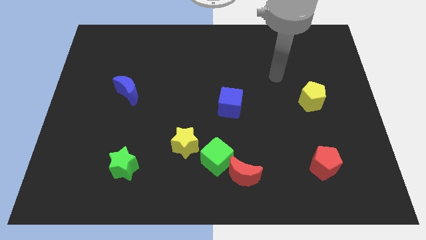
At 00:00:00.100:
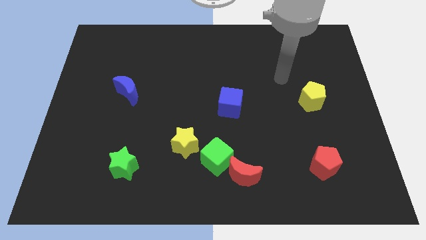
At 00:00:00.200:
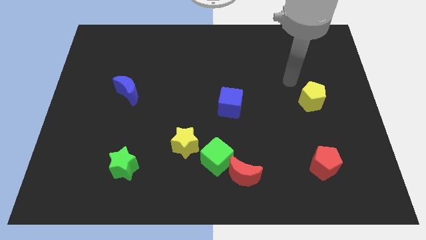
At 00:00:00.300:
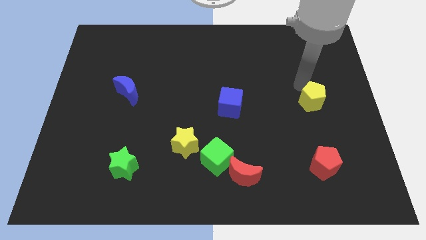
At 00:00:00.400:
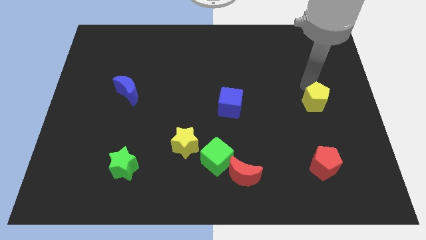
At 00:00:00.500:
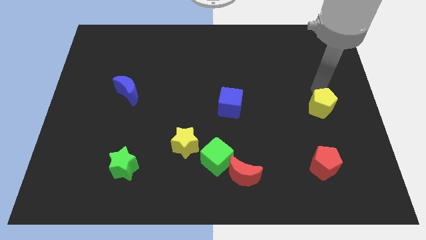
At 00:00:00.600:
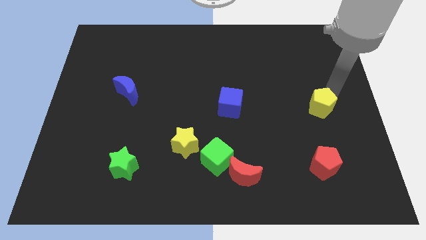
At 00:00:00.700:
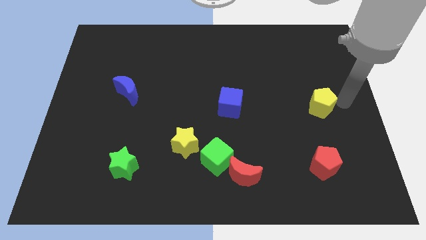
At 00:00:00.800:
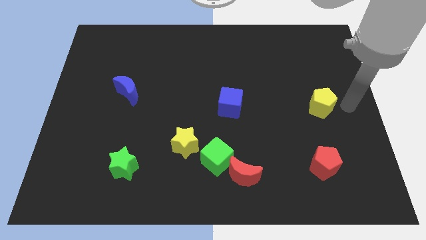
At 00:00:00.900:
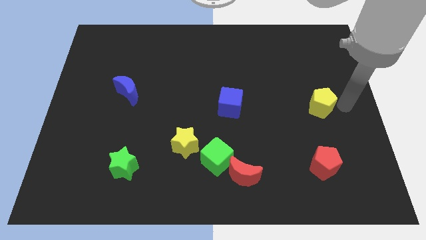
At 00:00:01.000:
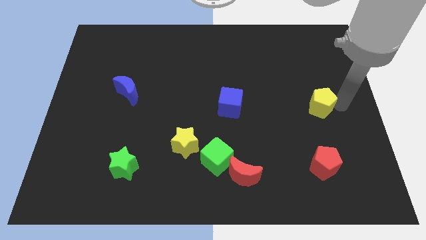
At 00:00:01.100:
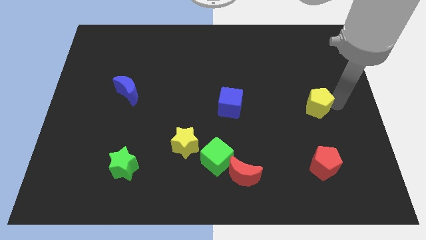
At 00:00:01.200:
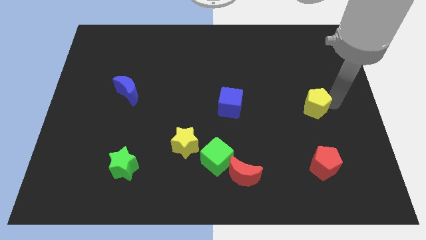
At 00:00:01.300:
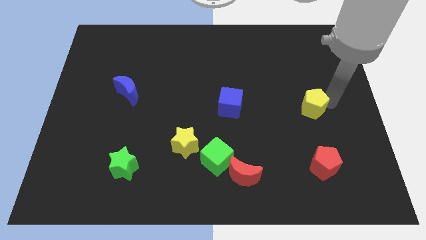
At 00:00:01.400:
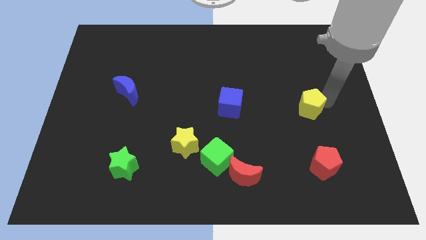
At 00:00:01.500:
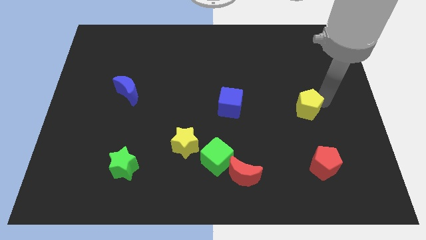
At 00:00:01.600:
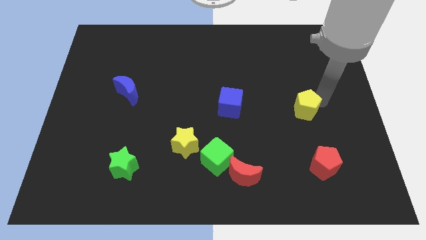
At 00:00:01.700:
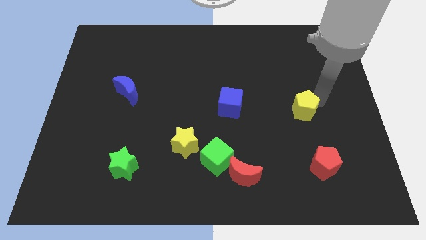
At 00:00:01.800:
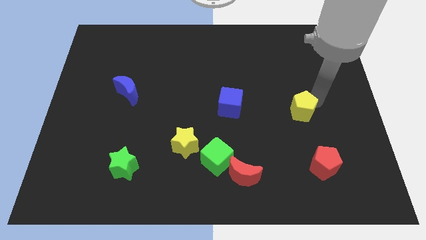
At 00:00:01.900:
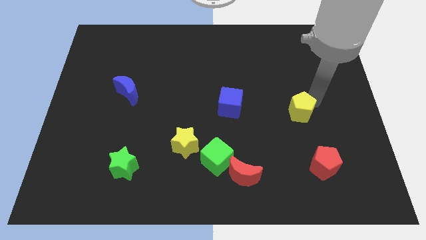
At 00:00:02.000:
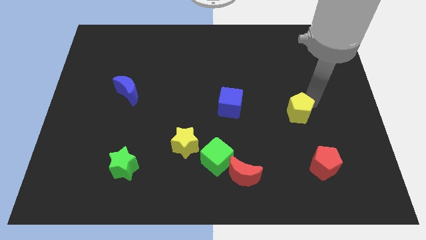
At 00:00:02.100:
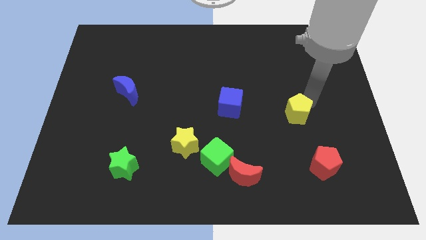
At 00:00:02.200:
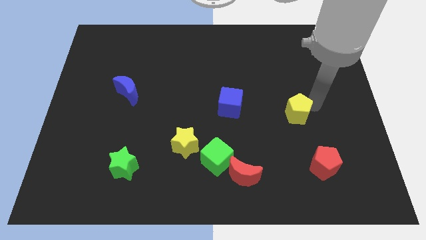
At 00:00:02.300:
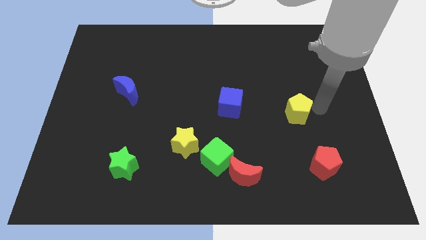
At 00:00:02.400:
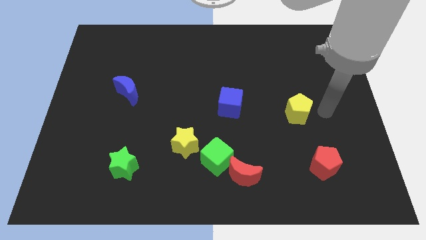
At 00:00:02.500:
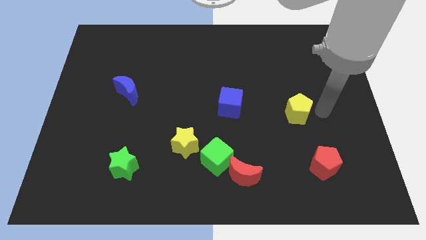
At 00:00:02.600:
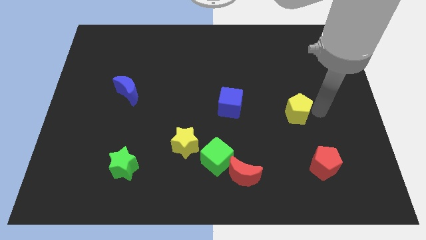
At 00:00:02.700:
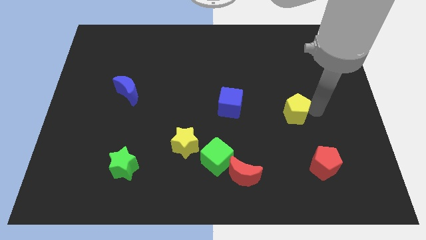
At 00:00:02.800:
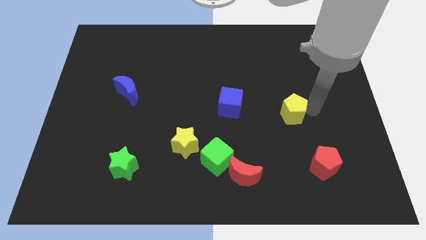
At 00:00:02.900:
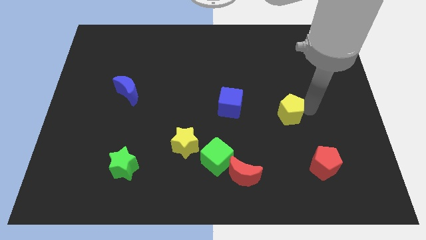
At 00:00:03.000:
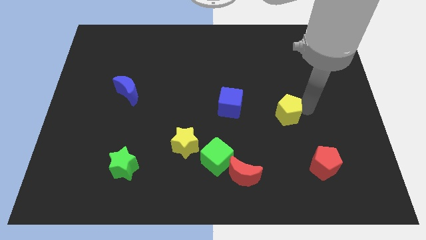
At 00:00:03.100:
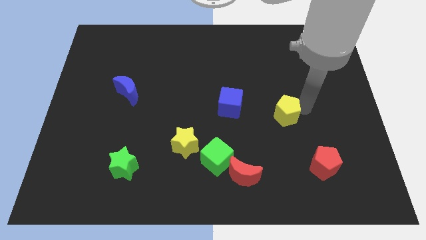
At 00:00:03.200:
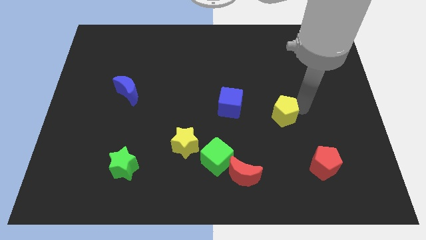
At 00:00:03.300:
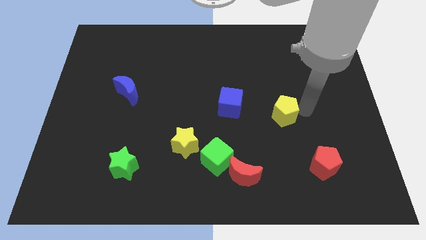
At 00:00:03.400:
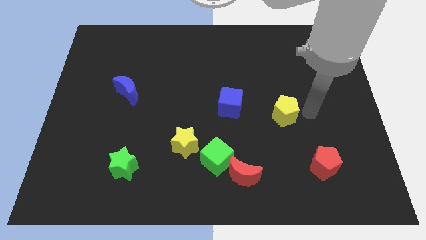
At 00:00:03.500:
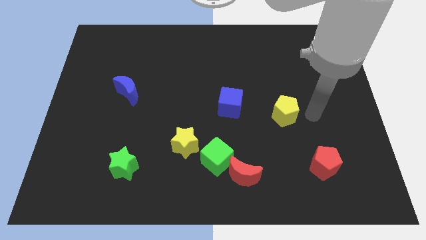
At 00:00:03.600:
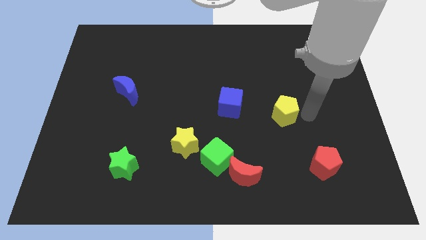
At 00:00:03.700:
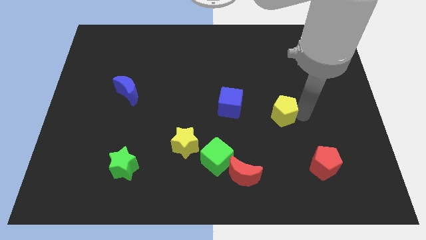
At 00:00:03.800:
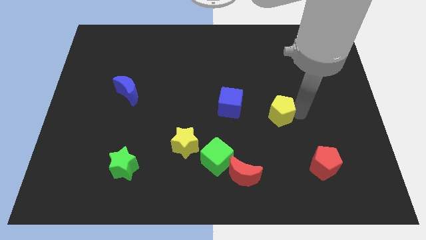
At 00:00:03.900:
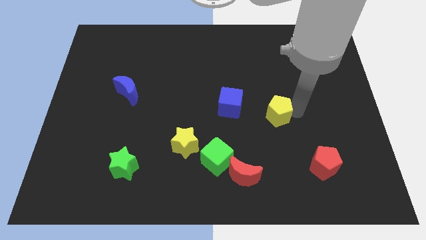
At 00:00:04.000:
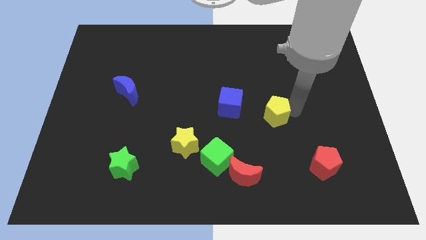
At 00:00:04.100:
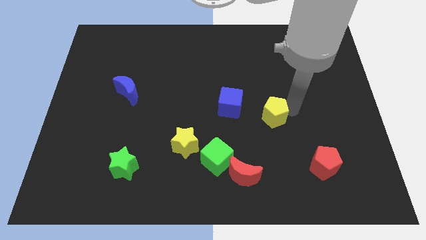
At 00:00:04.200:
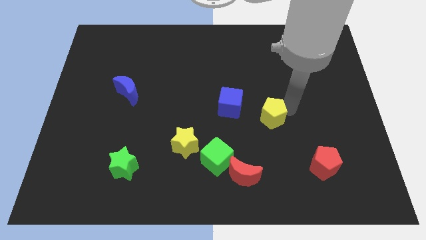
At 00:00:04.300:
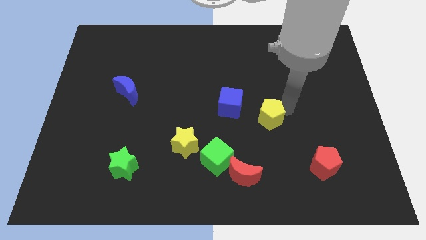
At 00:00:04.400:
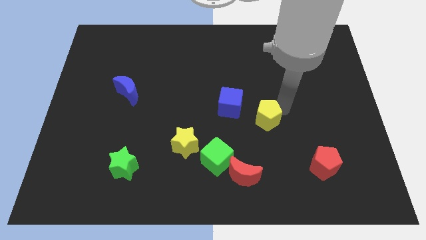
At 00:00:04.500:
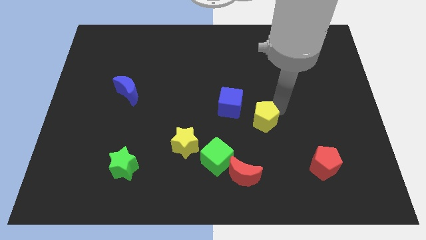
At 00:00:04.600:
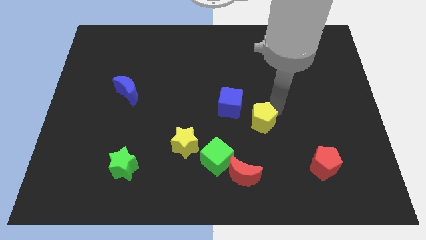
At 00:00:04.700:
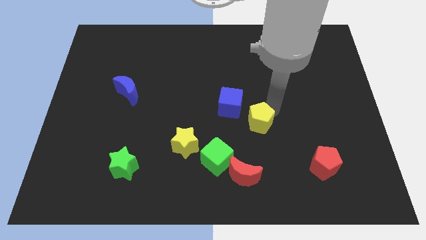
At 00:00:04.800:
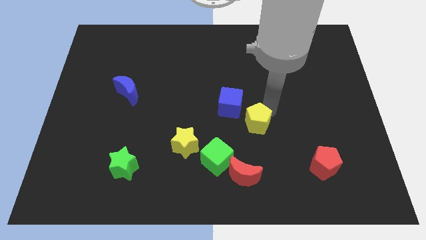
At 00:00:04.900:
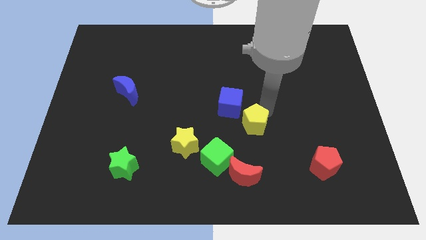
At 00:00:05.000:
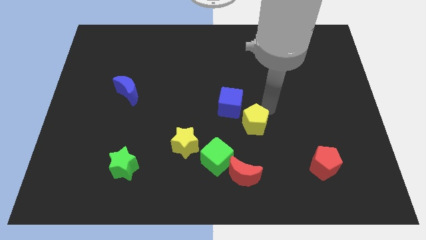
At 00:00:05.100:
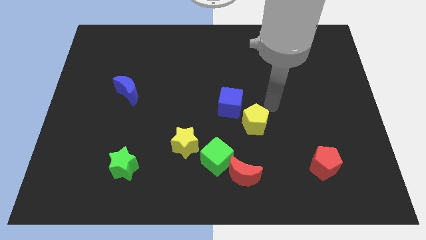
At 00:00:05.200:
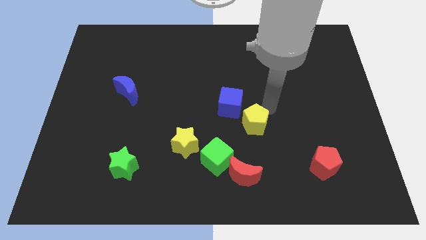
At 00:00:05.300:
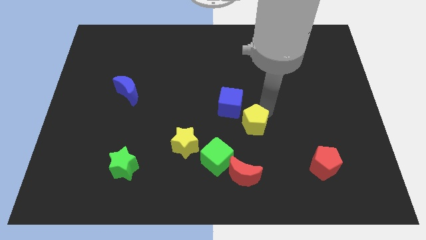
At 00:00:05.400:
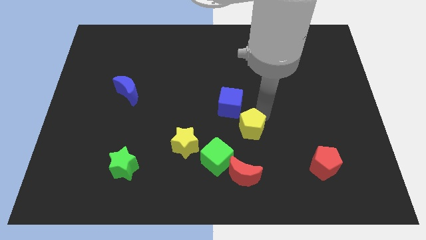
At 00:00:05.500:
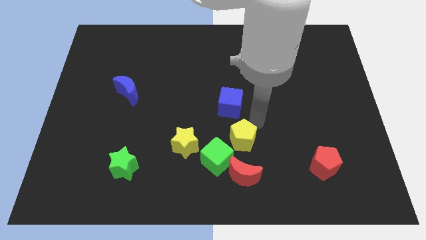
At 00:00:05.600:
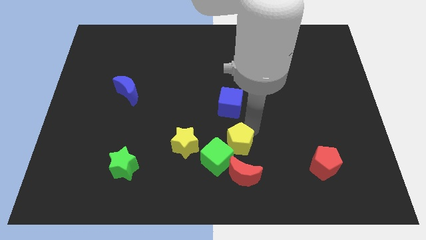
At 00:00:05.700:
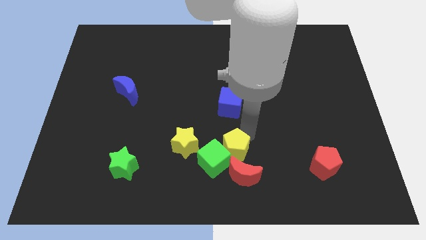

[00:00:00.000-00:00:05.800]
put the yellow pentagon towards the green cube

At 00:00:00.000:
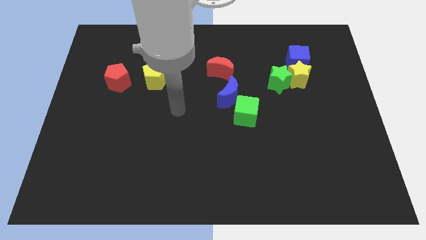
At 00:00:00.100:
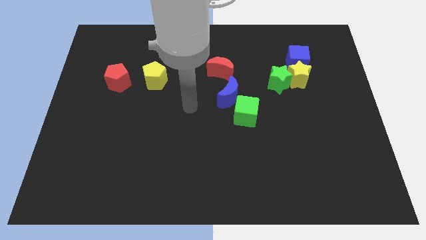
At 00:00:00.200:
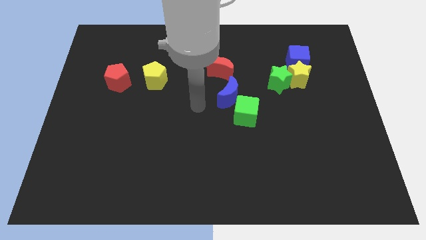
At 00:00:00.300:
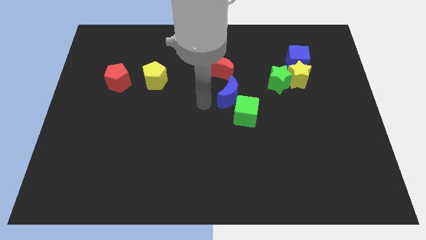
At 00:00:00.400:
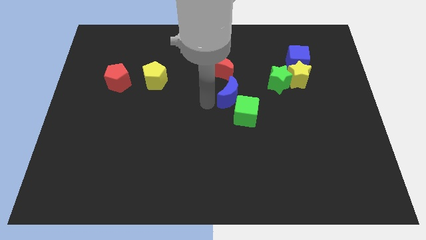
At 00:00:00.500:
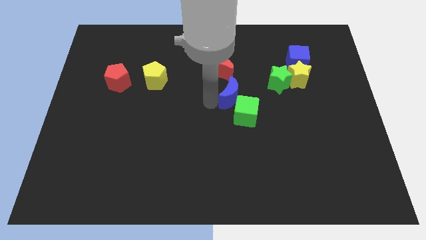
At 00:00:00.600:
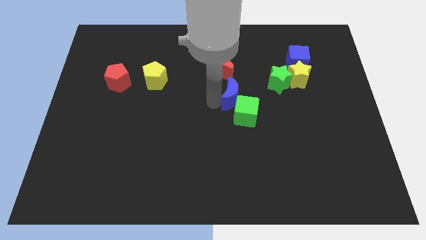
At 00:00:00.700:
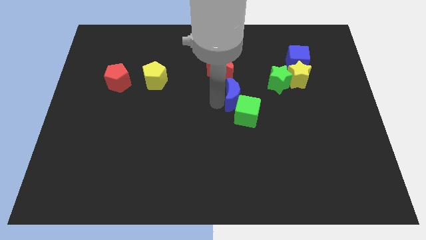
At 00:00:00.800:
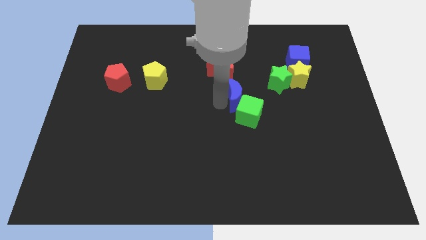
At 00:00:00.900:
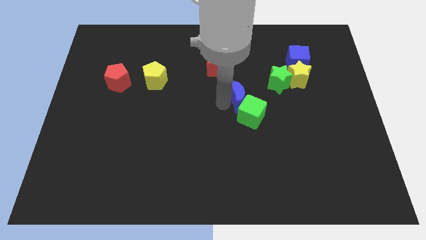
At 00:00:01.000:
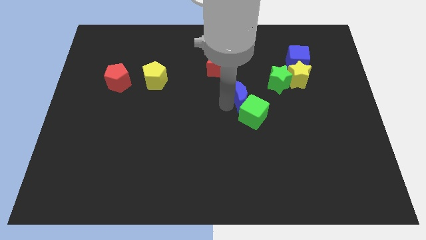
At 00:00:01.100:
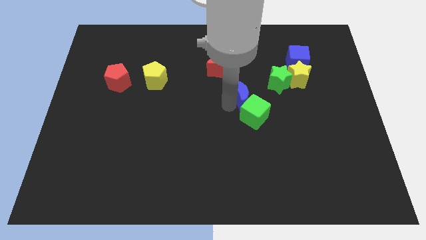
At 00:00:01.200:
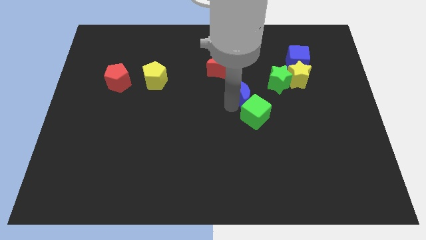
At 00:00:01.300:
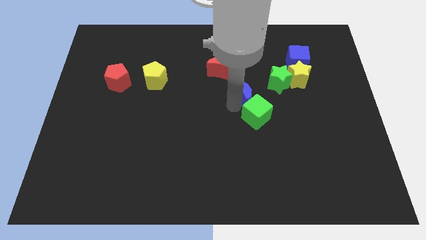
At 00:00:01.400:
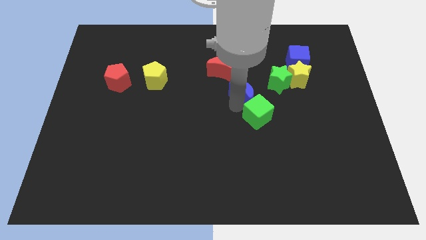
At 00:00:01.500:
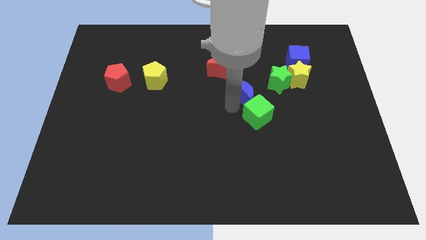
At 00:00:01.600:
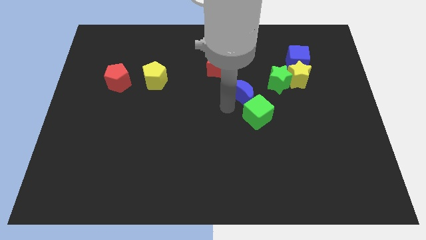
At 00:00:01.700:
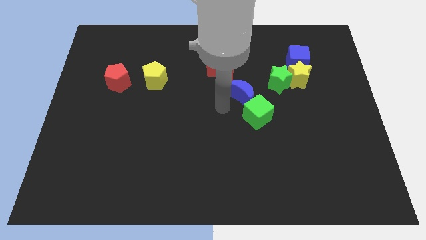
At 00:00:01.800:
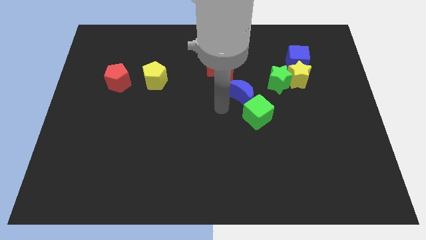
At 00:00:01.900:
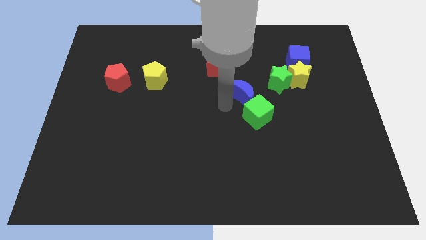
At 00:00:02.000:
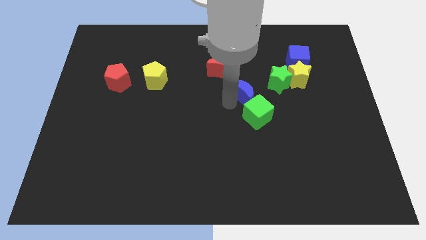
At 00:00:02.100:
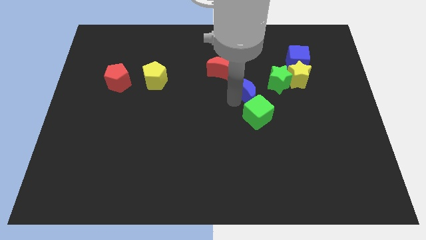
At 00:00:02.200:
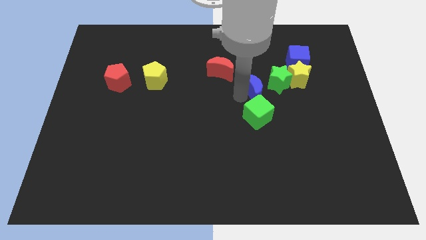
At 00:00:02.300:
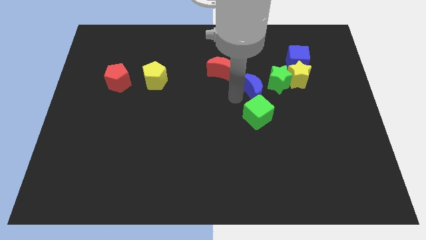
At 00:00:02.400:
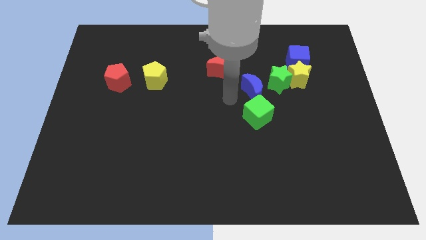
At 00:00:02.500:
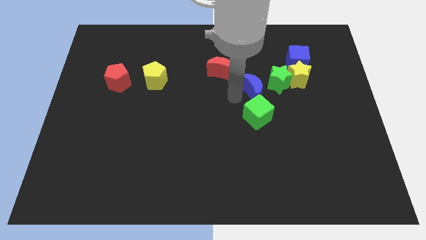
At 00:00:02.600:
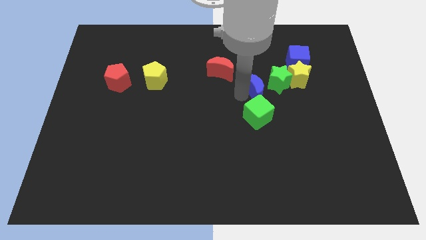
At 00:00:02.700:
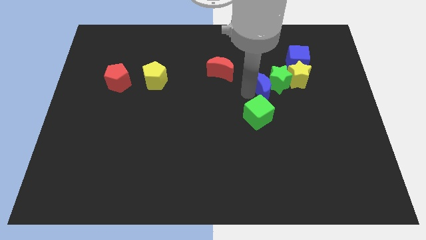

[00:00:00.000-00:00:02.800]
slide the blue moon towards the green star
